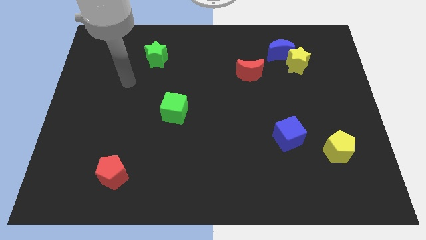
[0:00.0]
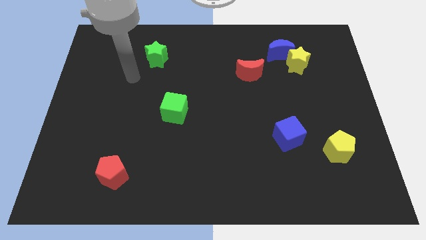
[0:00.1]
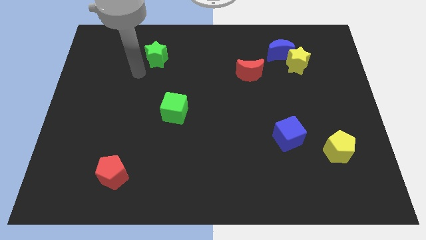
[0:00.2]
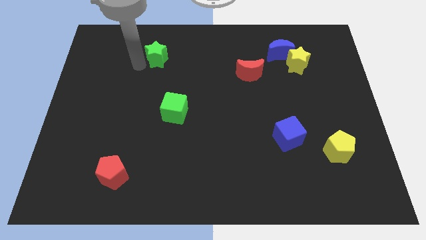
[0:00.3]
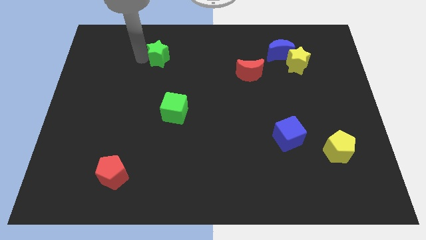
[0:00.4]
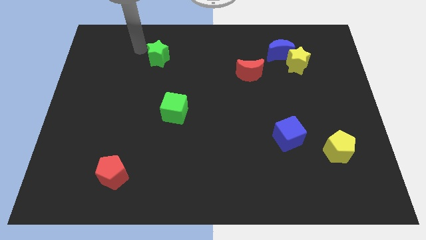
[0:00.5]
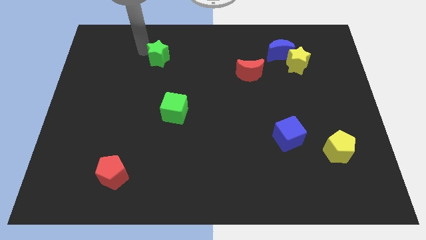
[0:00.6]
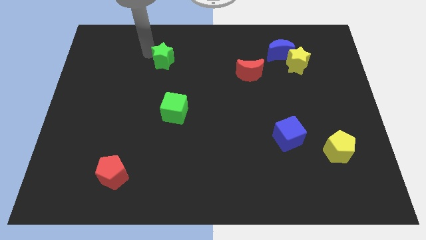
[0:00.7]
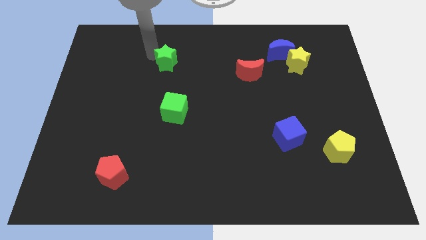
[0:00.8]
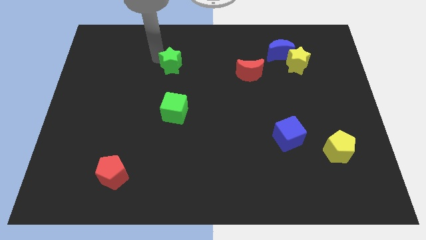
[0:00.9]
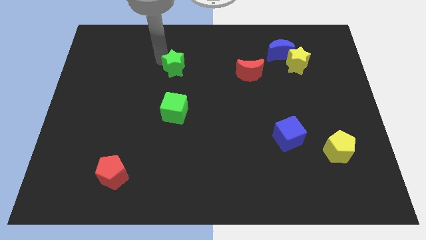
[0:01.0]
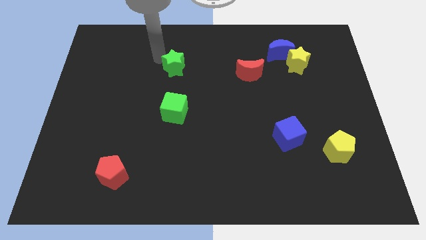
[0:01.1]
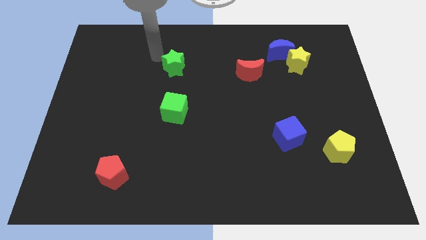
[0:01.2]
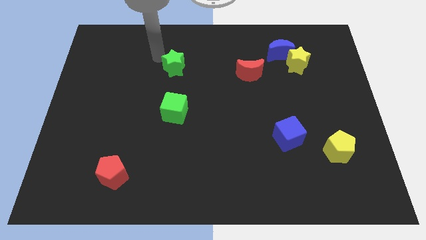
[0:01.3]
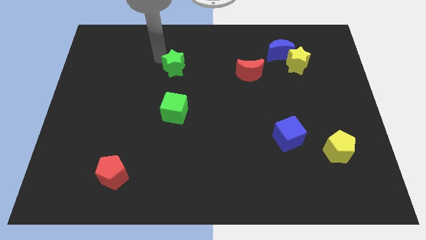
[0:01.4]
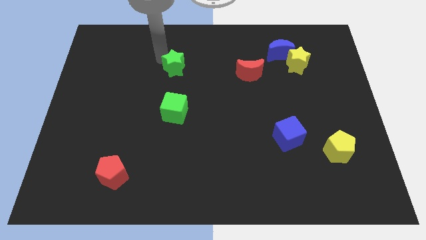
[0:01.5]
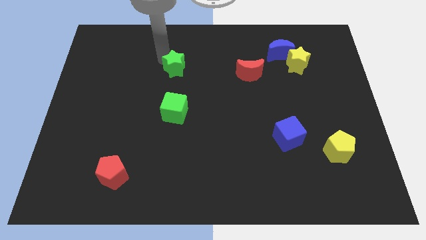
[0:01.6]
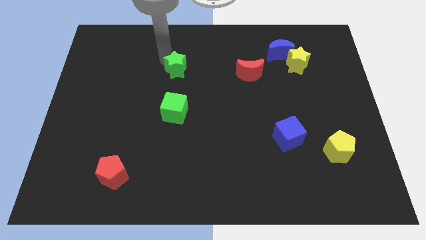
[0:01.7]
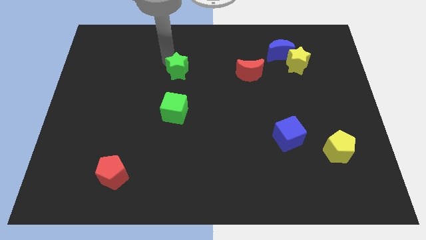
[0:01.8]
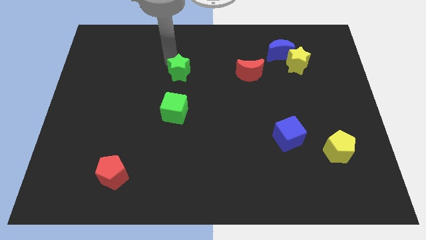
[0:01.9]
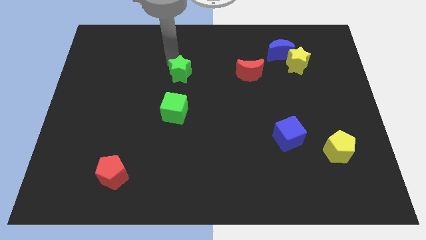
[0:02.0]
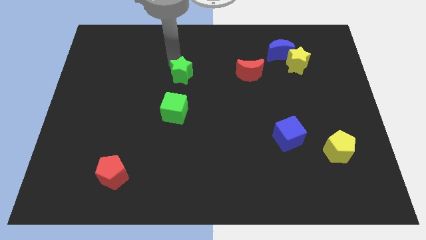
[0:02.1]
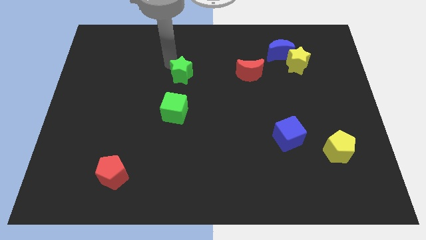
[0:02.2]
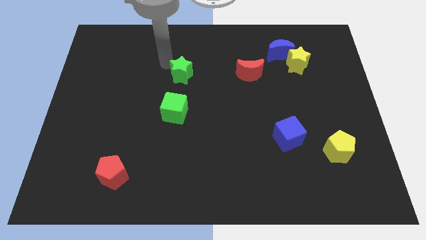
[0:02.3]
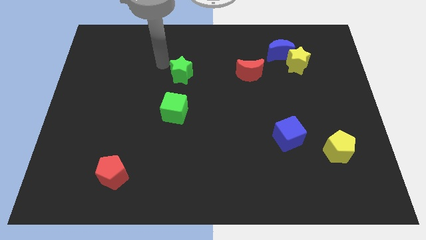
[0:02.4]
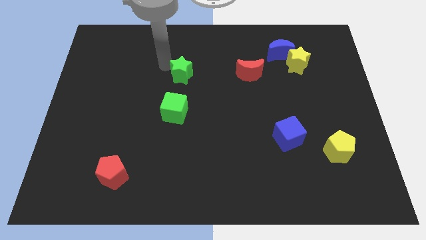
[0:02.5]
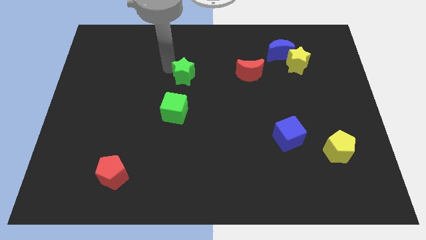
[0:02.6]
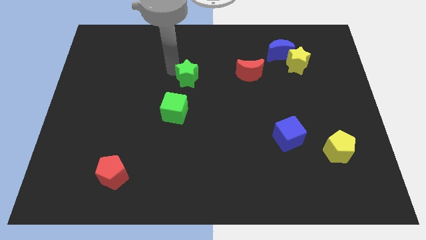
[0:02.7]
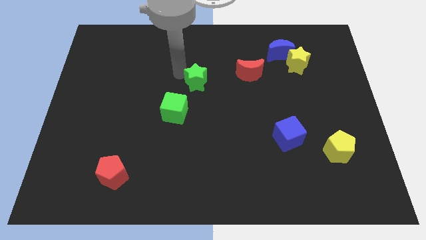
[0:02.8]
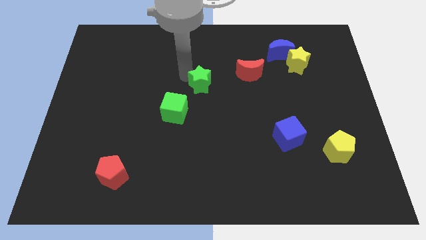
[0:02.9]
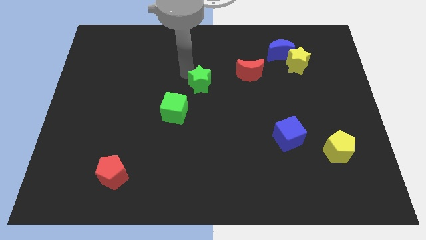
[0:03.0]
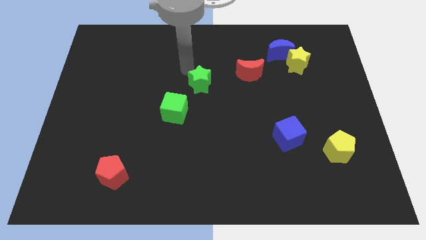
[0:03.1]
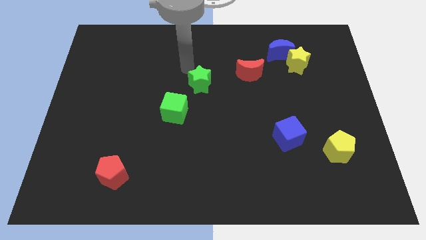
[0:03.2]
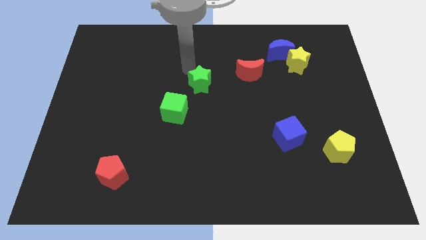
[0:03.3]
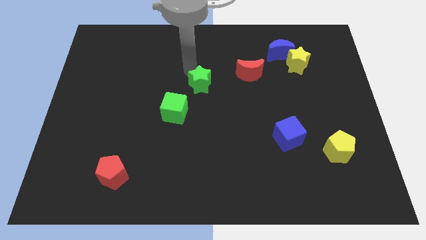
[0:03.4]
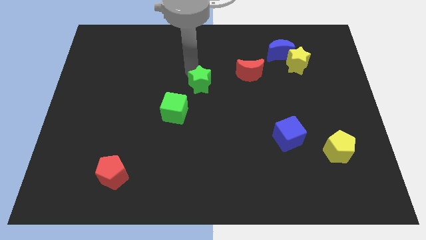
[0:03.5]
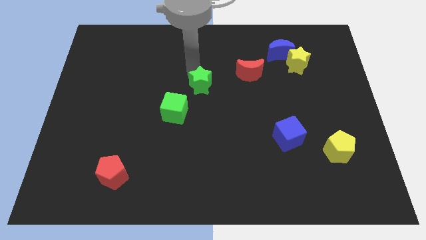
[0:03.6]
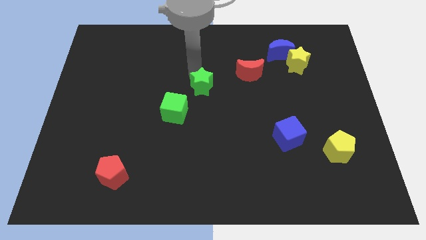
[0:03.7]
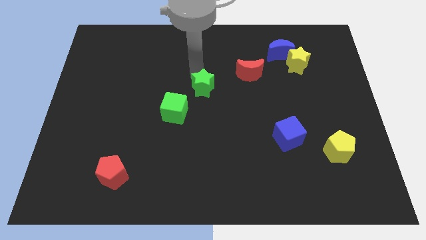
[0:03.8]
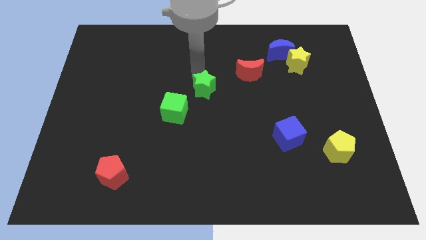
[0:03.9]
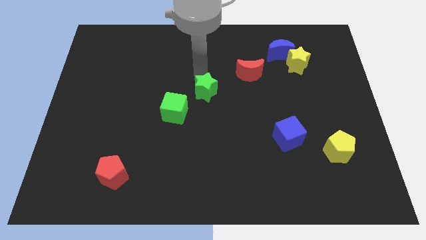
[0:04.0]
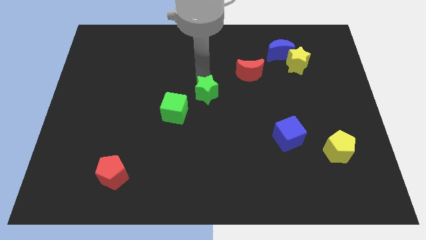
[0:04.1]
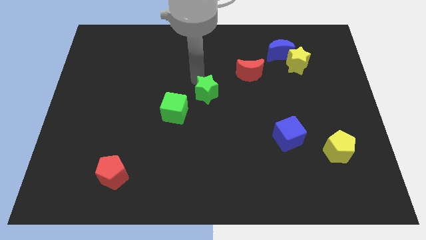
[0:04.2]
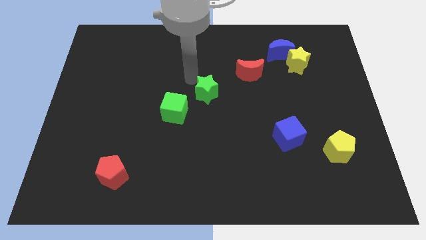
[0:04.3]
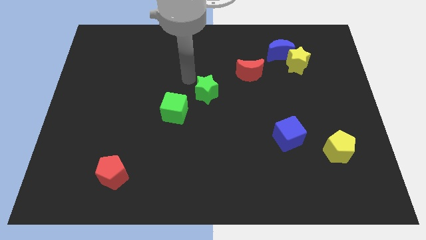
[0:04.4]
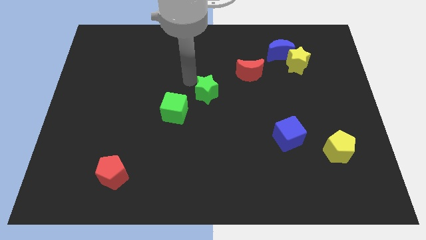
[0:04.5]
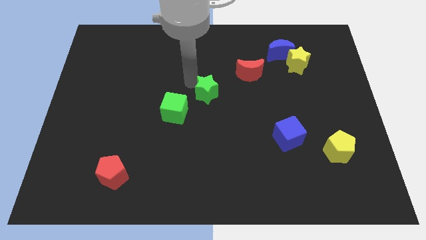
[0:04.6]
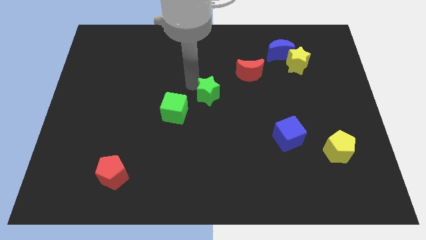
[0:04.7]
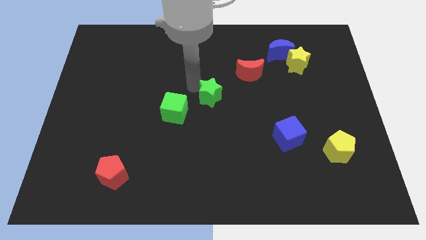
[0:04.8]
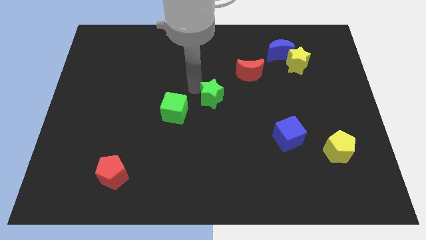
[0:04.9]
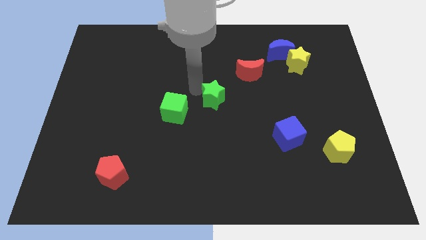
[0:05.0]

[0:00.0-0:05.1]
move the green star downwards and to the right

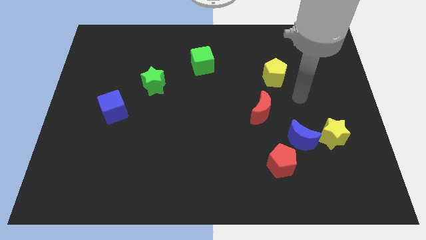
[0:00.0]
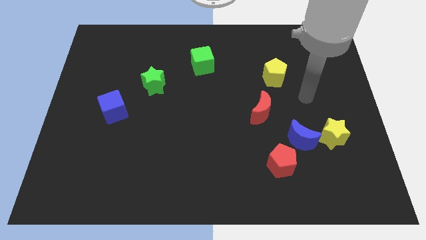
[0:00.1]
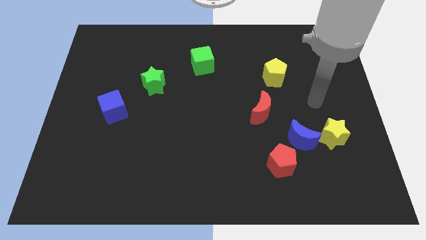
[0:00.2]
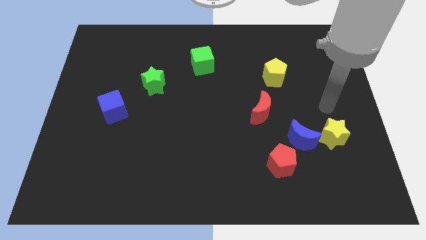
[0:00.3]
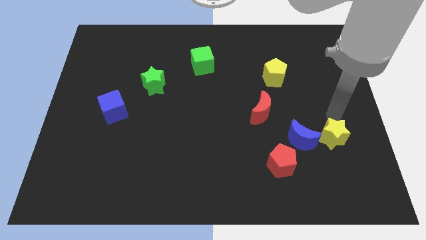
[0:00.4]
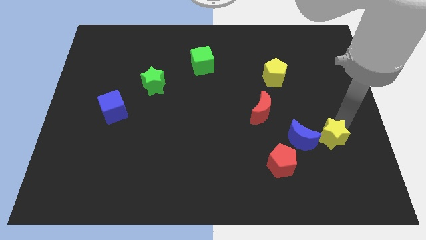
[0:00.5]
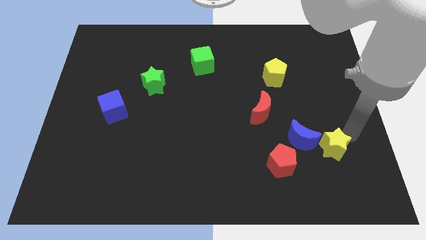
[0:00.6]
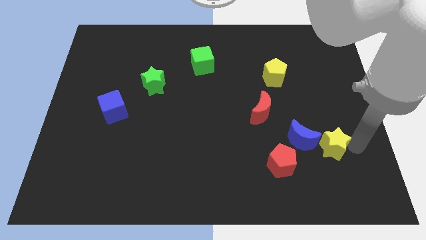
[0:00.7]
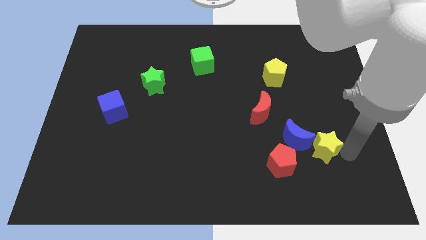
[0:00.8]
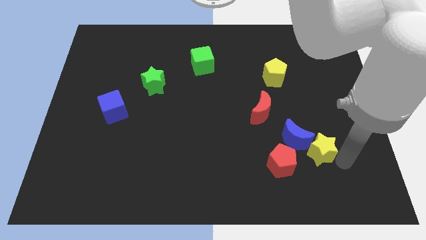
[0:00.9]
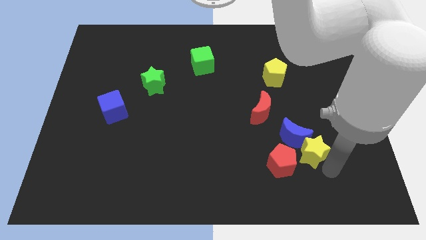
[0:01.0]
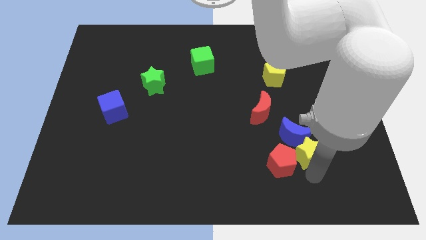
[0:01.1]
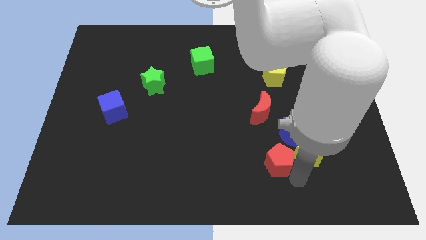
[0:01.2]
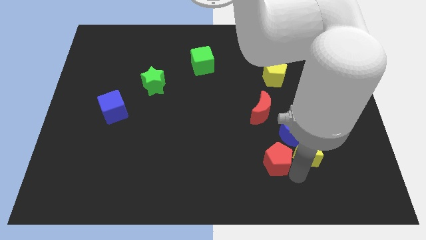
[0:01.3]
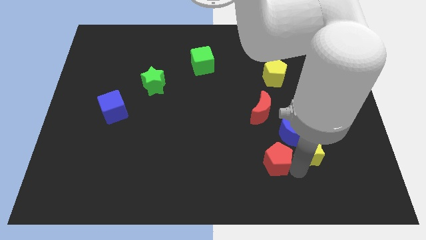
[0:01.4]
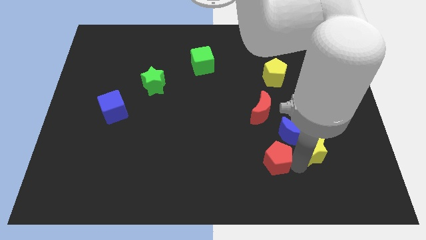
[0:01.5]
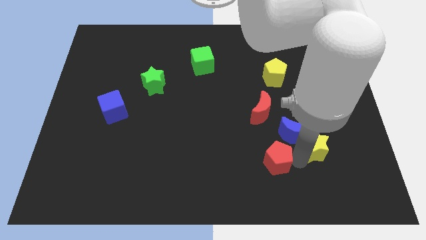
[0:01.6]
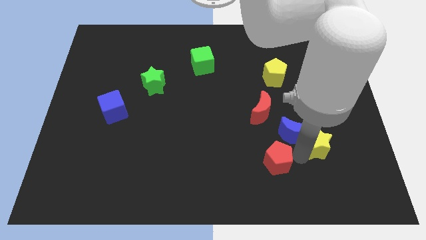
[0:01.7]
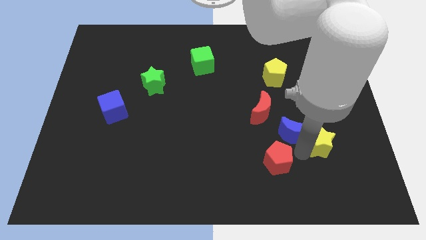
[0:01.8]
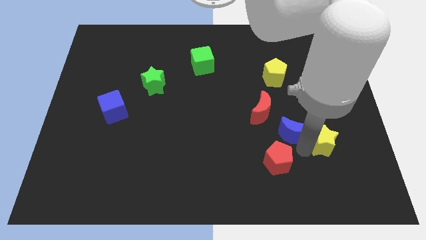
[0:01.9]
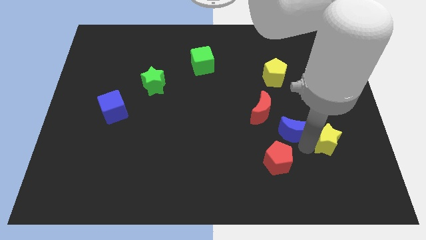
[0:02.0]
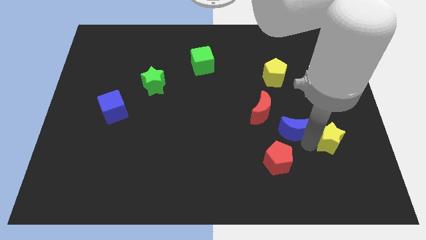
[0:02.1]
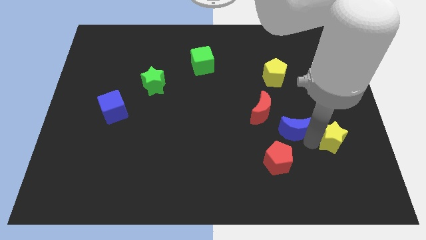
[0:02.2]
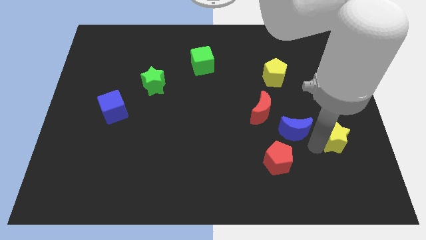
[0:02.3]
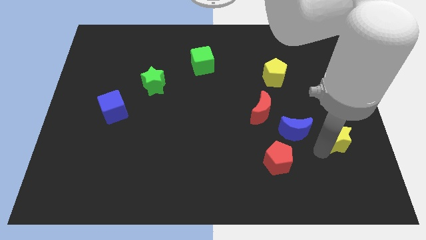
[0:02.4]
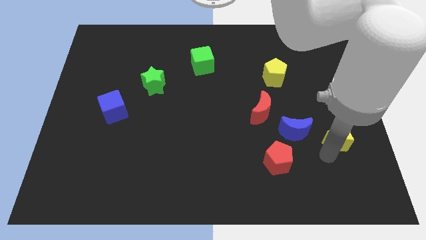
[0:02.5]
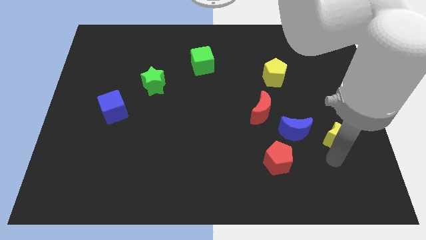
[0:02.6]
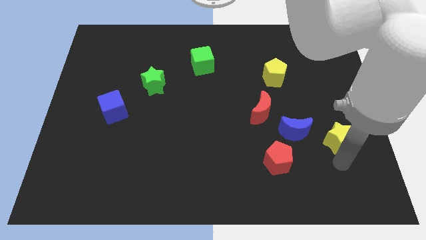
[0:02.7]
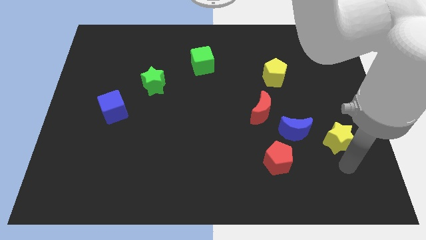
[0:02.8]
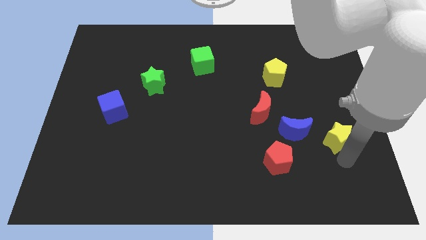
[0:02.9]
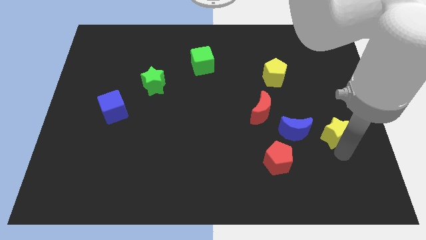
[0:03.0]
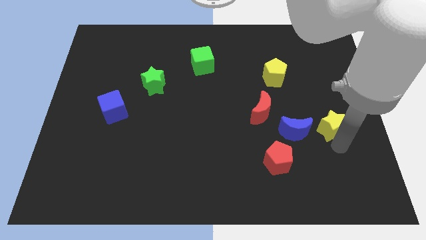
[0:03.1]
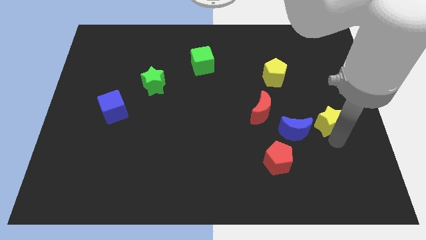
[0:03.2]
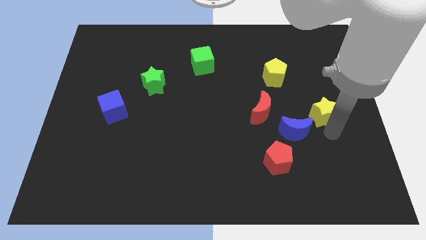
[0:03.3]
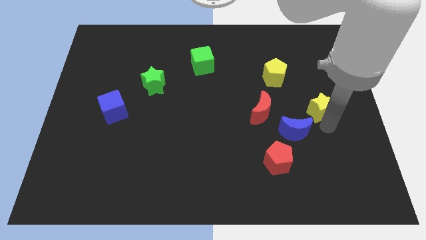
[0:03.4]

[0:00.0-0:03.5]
slide the yellow star upwards a little bit
